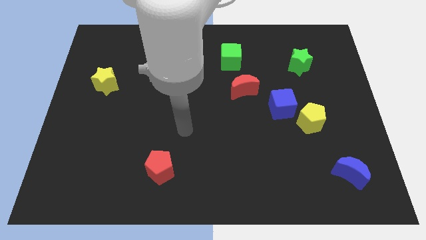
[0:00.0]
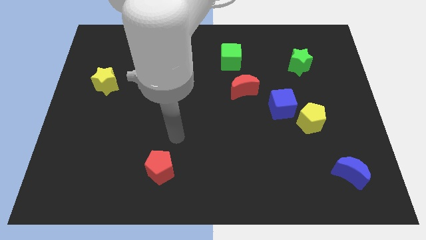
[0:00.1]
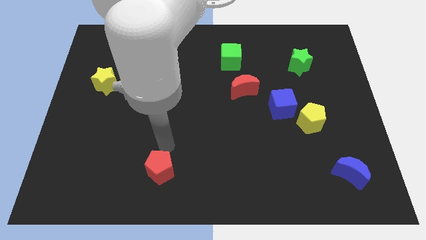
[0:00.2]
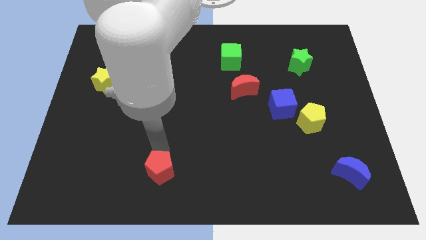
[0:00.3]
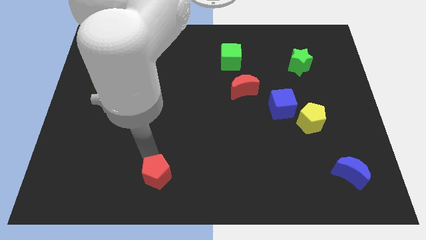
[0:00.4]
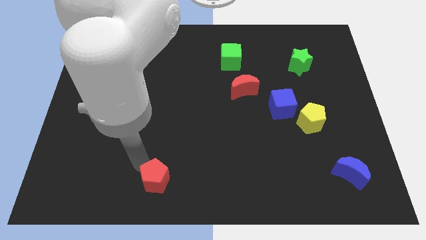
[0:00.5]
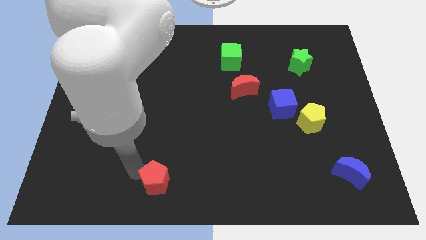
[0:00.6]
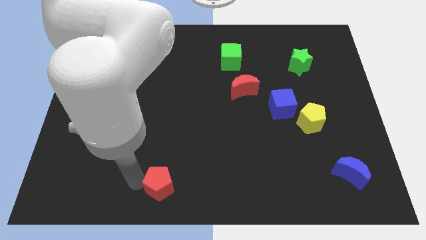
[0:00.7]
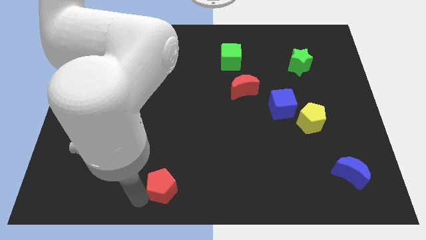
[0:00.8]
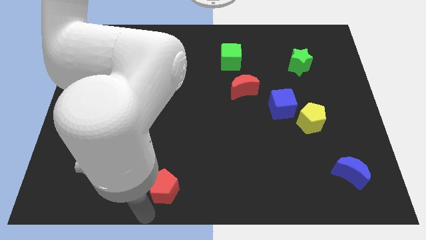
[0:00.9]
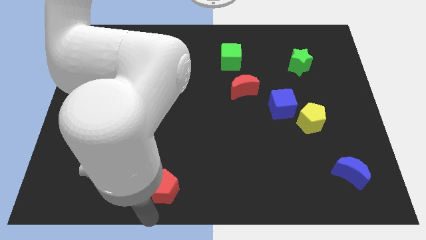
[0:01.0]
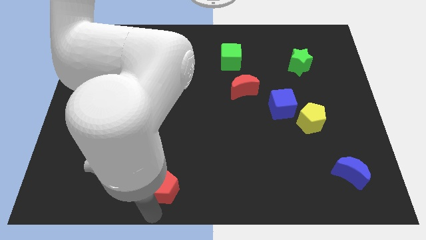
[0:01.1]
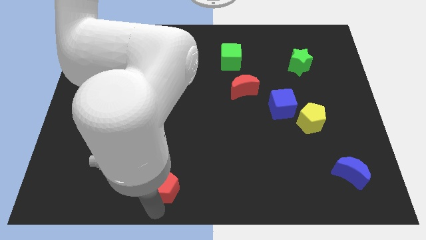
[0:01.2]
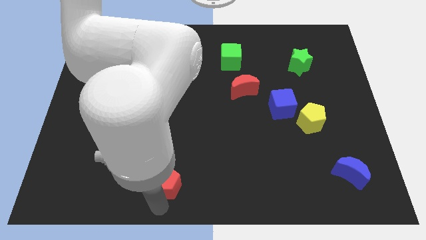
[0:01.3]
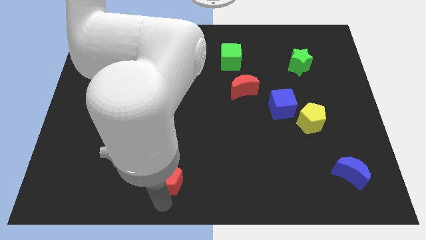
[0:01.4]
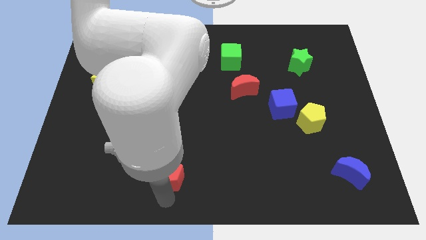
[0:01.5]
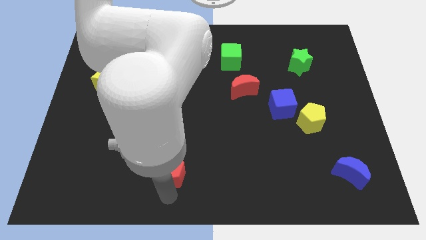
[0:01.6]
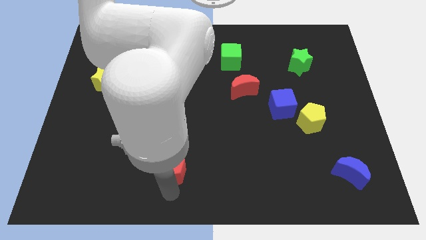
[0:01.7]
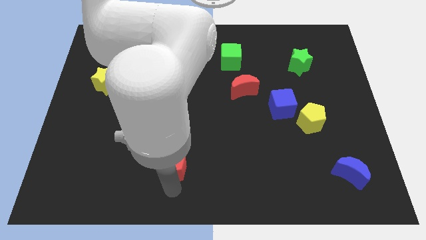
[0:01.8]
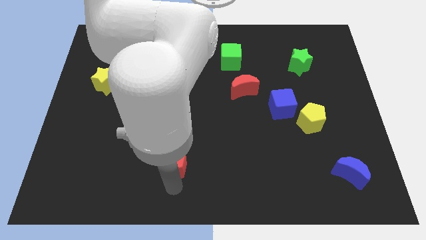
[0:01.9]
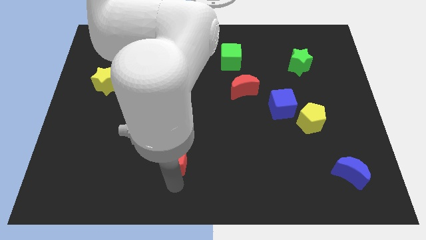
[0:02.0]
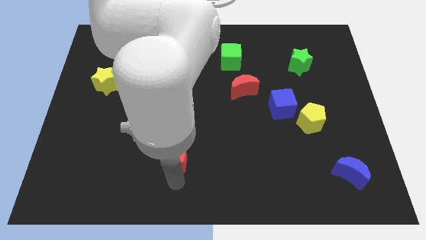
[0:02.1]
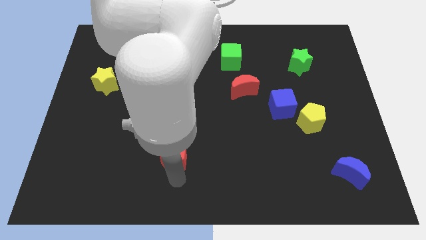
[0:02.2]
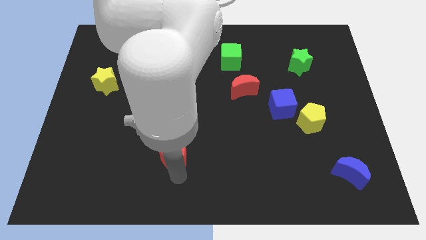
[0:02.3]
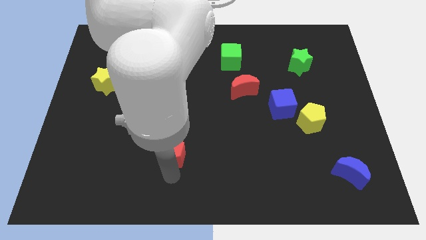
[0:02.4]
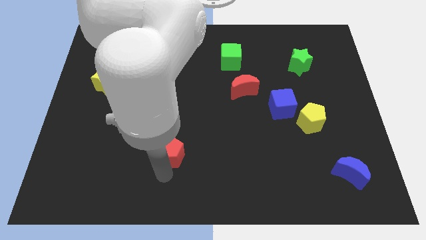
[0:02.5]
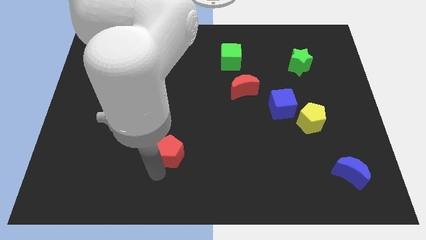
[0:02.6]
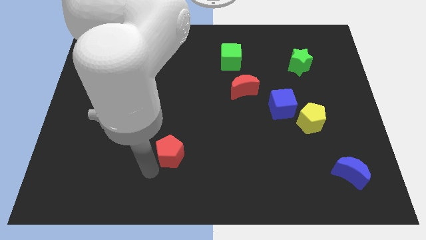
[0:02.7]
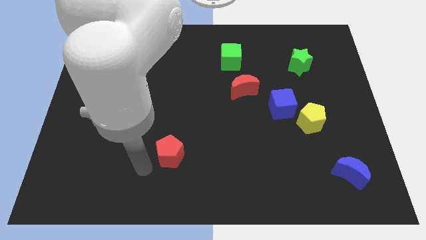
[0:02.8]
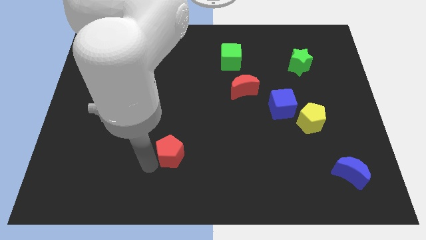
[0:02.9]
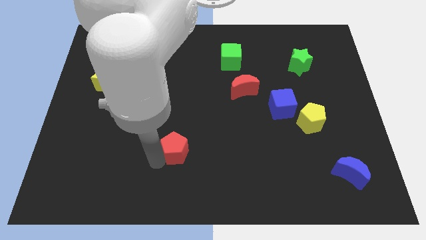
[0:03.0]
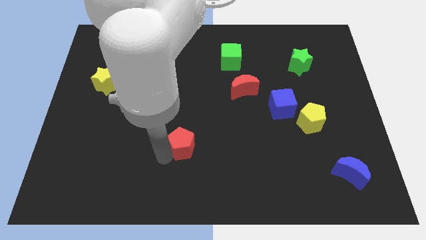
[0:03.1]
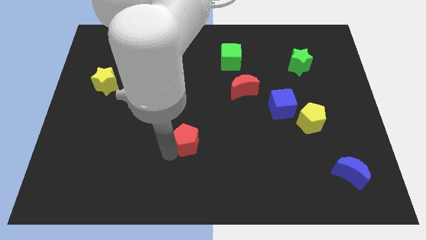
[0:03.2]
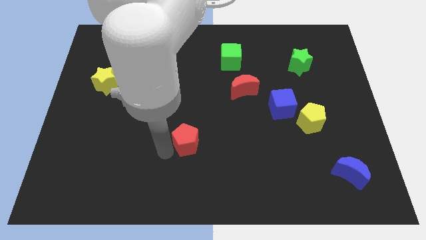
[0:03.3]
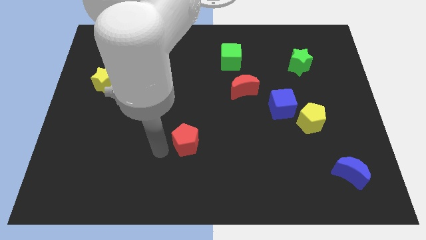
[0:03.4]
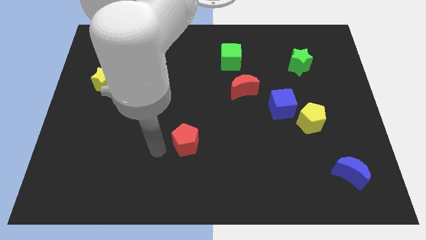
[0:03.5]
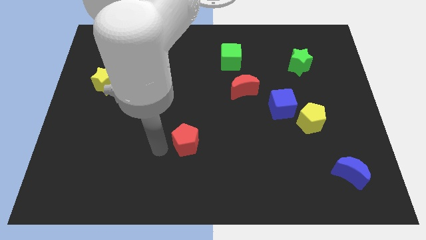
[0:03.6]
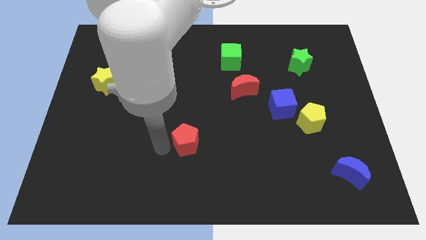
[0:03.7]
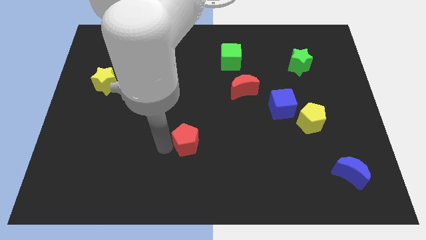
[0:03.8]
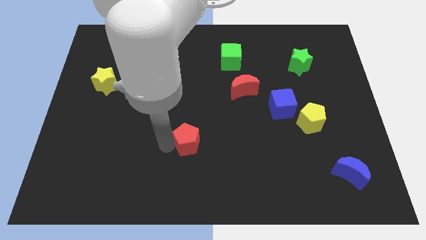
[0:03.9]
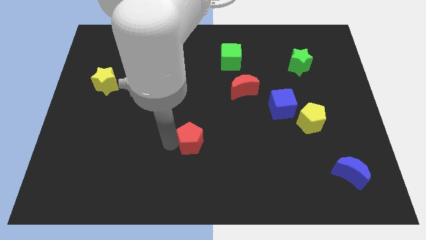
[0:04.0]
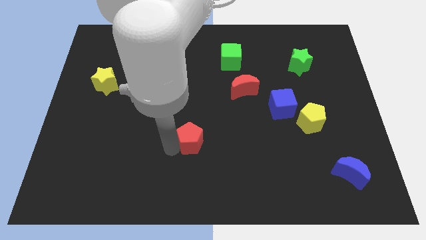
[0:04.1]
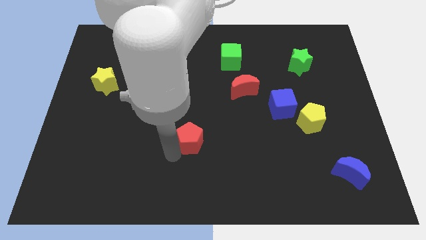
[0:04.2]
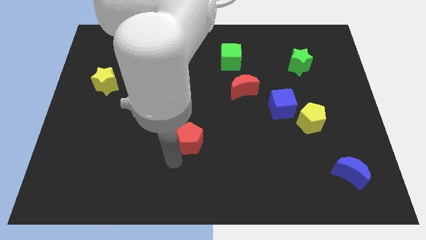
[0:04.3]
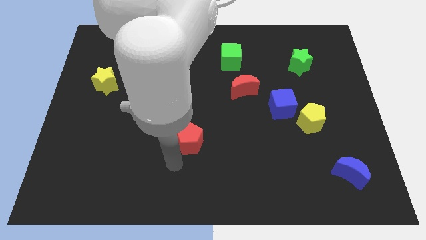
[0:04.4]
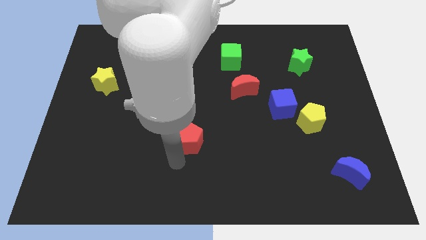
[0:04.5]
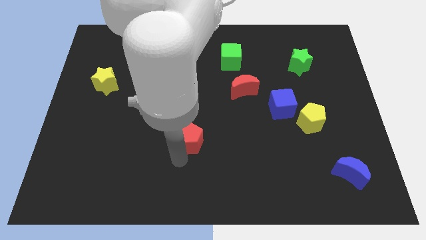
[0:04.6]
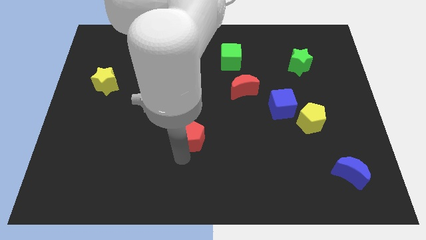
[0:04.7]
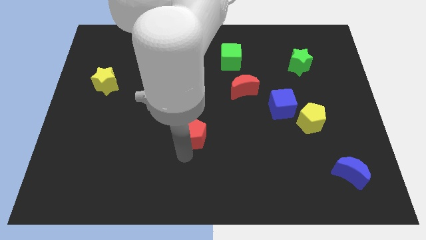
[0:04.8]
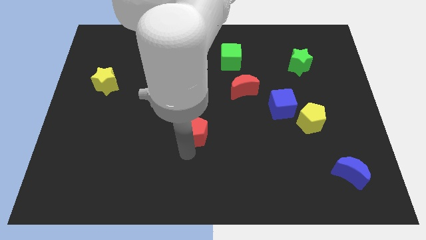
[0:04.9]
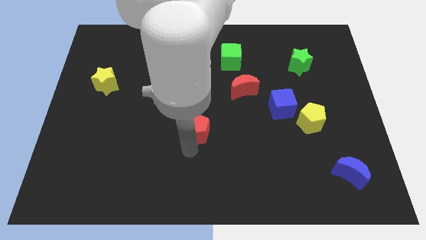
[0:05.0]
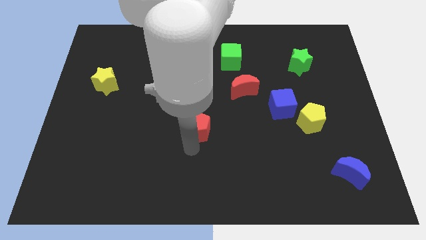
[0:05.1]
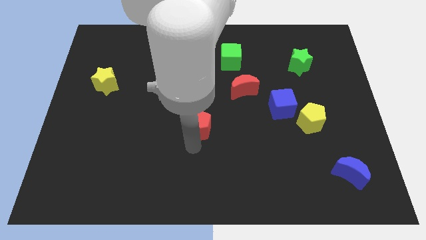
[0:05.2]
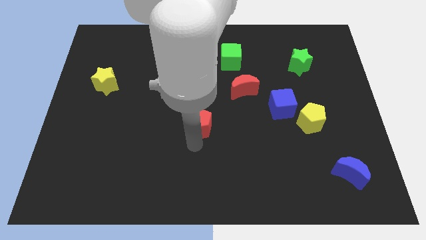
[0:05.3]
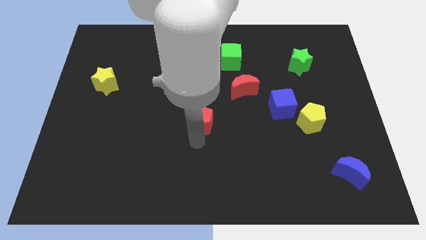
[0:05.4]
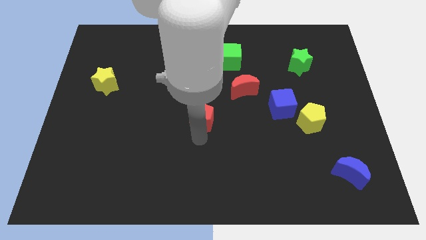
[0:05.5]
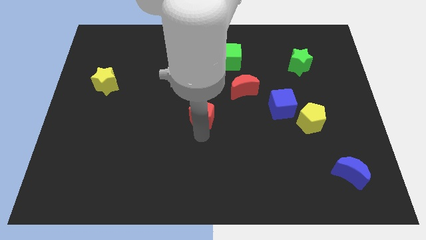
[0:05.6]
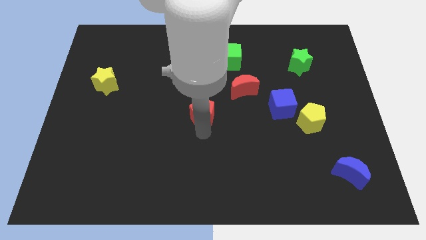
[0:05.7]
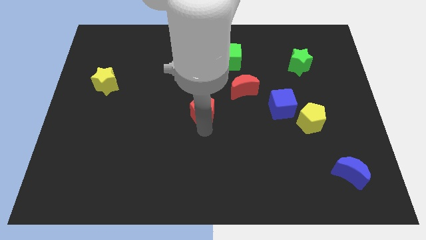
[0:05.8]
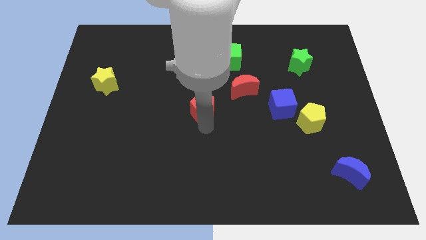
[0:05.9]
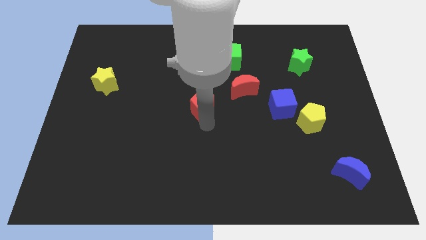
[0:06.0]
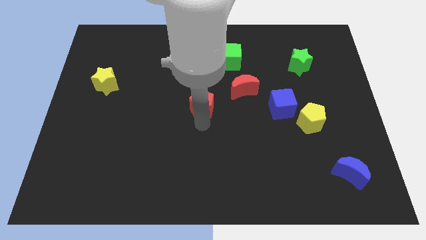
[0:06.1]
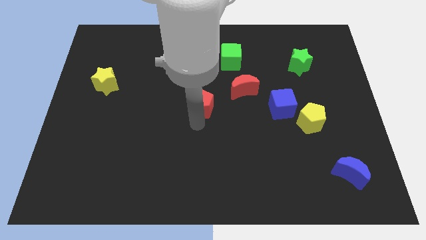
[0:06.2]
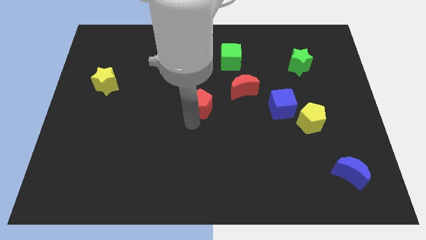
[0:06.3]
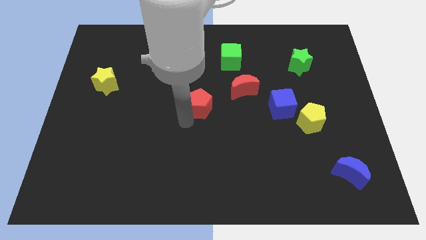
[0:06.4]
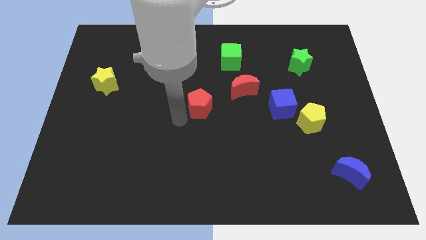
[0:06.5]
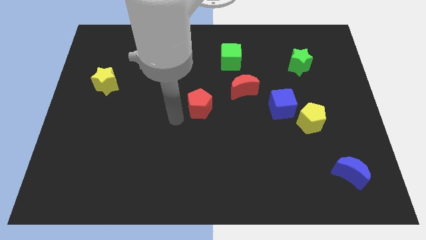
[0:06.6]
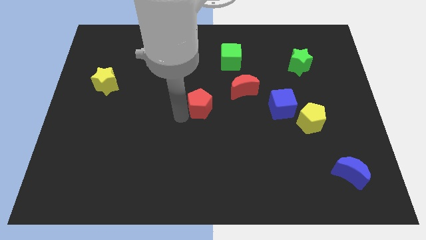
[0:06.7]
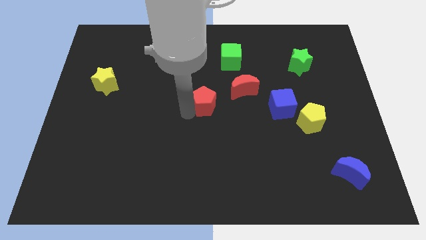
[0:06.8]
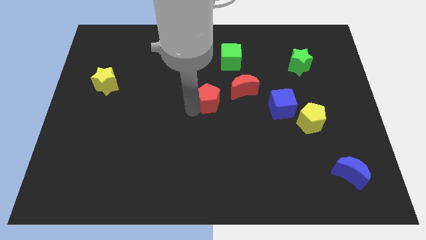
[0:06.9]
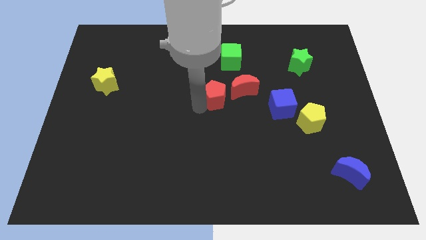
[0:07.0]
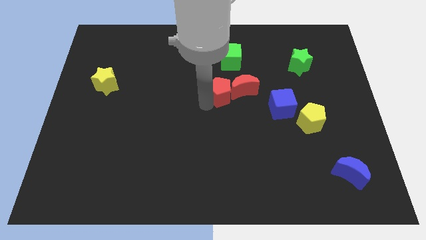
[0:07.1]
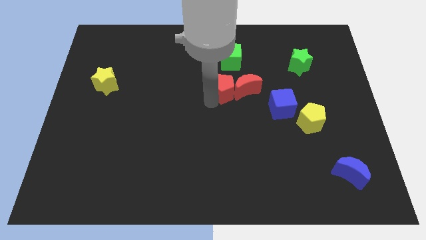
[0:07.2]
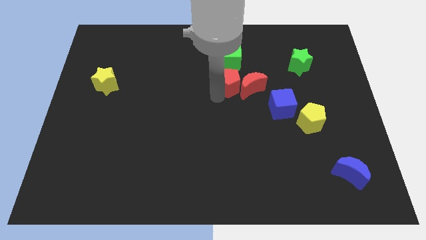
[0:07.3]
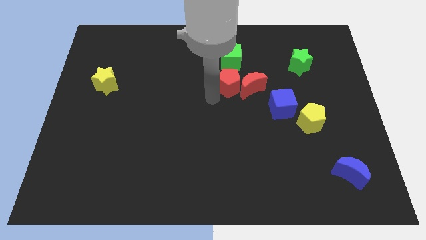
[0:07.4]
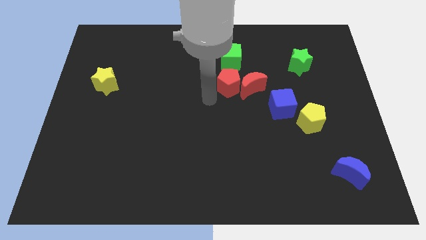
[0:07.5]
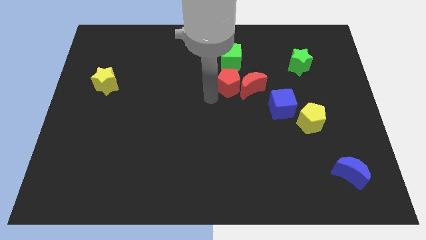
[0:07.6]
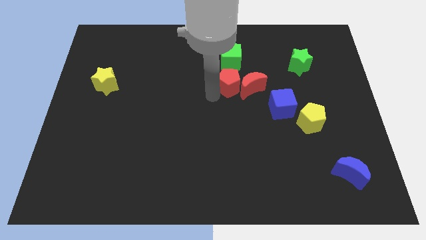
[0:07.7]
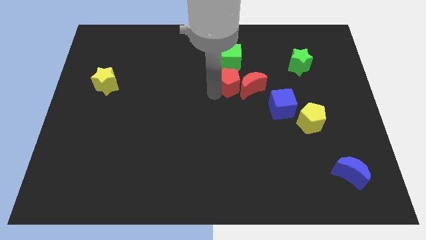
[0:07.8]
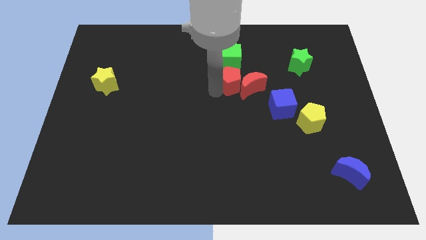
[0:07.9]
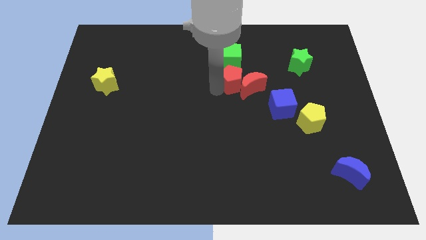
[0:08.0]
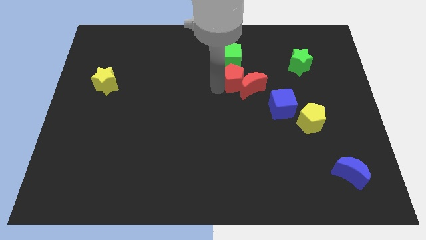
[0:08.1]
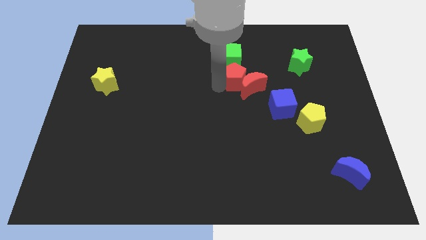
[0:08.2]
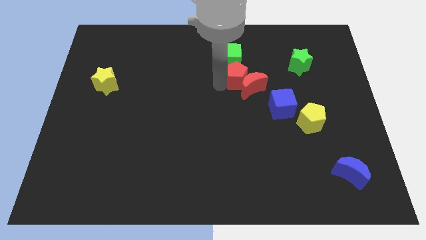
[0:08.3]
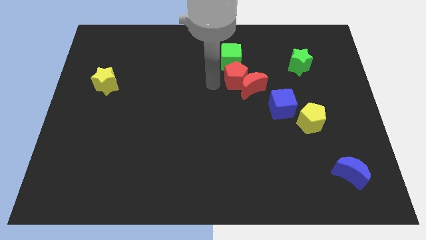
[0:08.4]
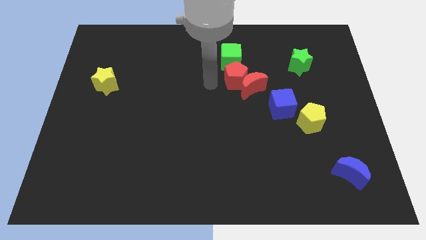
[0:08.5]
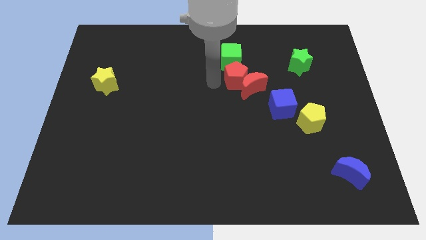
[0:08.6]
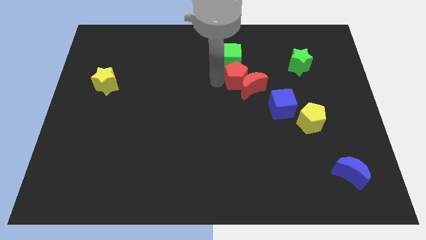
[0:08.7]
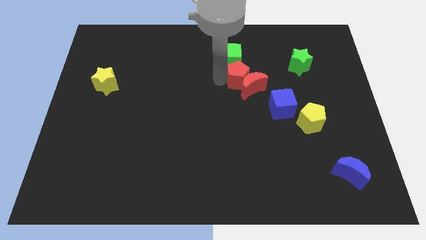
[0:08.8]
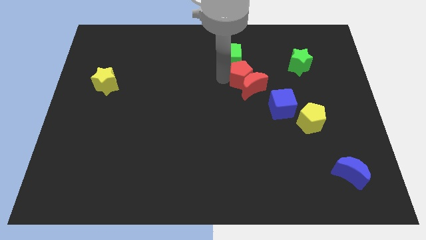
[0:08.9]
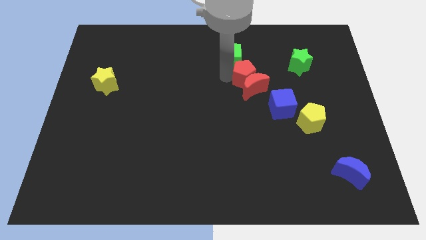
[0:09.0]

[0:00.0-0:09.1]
put the red pentagon to the top right side of the red moon
